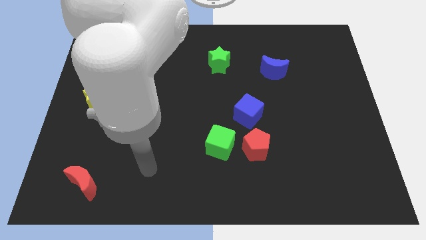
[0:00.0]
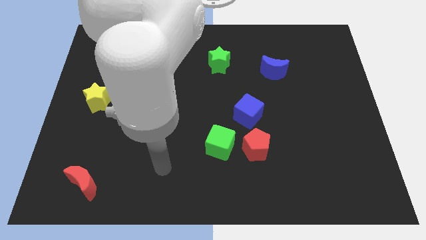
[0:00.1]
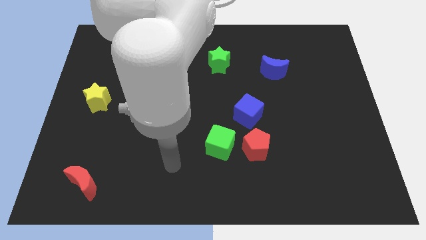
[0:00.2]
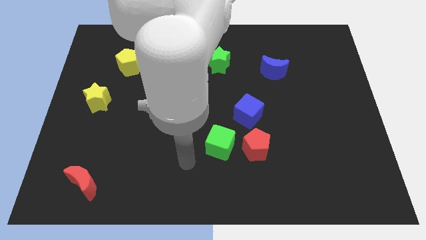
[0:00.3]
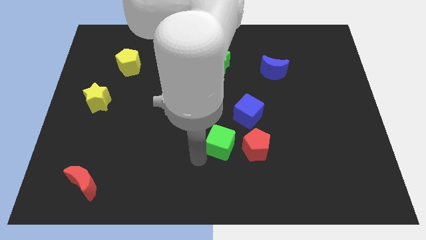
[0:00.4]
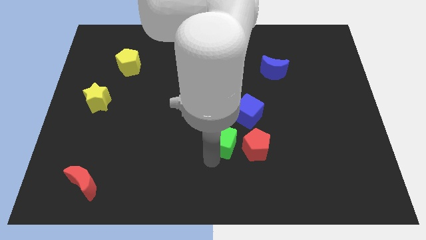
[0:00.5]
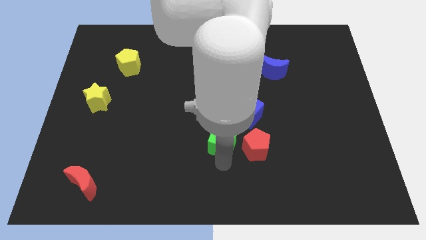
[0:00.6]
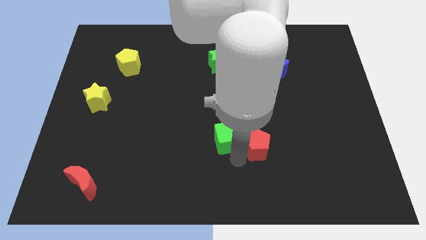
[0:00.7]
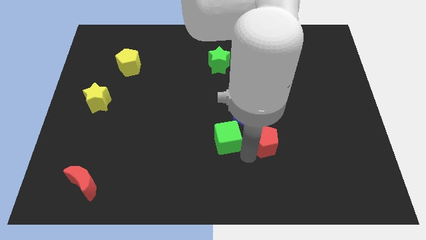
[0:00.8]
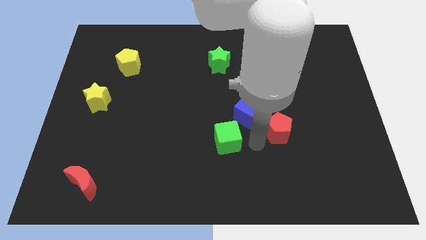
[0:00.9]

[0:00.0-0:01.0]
move the green cube away from the red pentagon

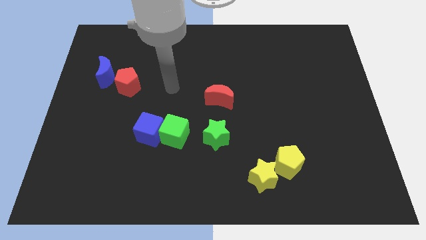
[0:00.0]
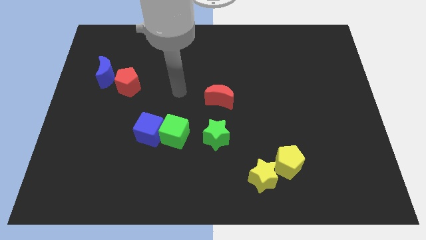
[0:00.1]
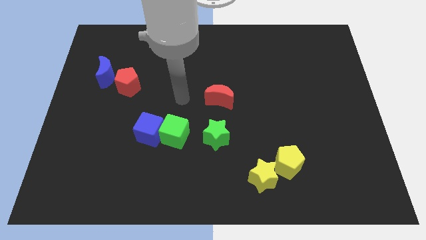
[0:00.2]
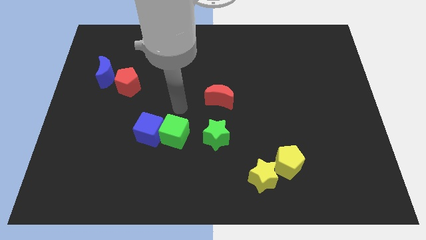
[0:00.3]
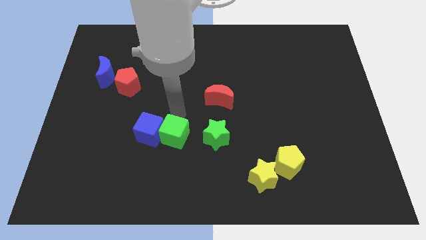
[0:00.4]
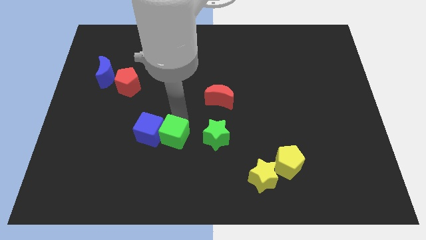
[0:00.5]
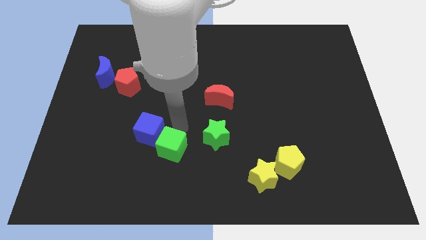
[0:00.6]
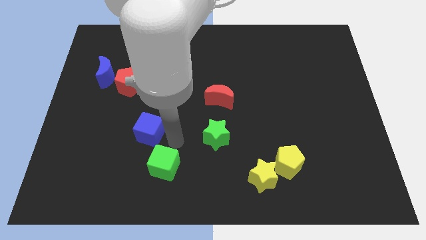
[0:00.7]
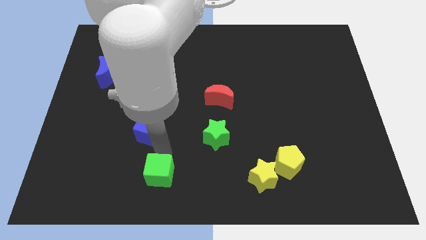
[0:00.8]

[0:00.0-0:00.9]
move the blue cube away from the green cube

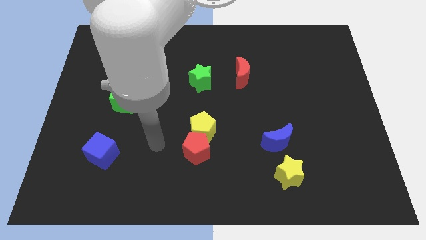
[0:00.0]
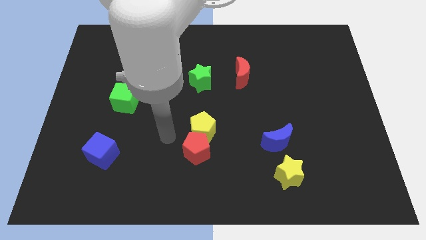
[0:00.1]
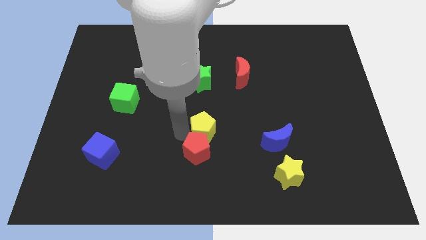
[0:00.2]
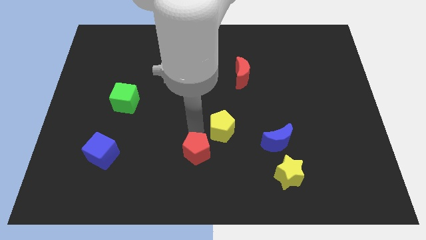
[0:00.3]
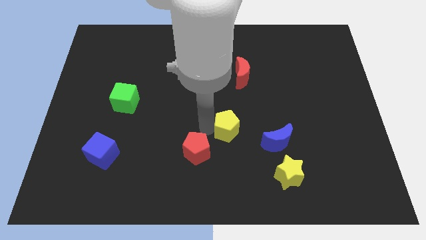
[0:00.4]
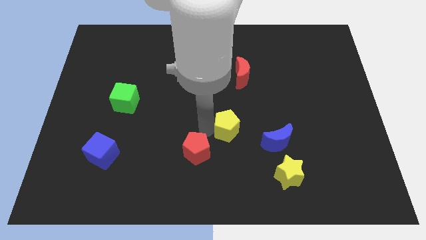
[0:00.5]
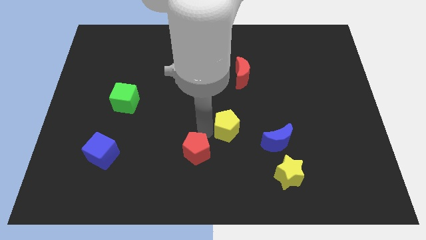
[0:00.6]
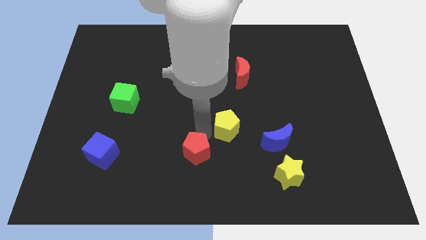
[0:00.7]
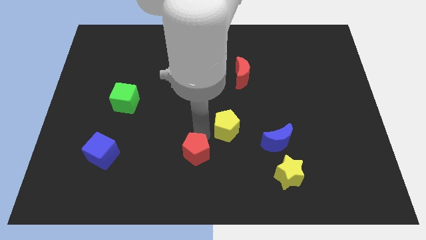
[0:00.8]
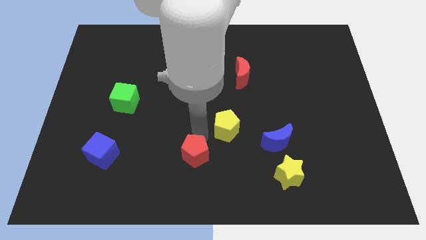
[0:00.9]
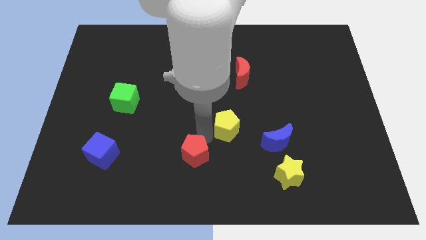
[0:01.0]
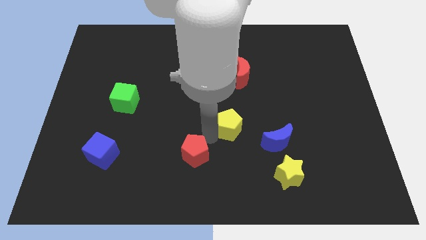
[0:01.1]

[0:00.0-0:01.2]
pull the red pentagon apart from the yellow pentagon

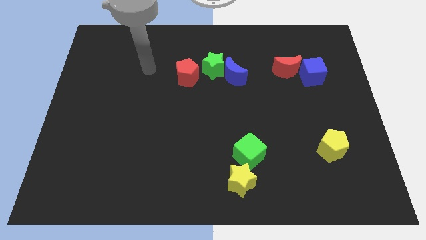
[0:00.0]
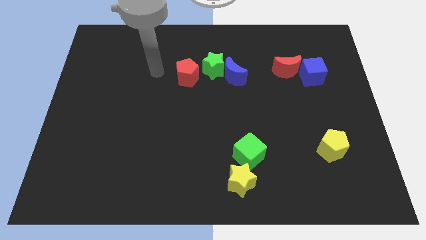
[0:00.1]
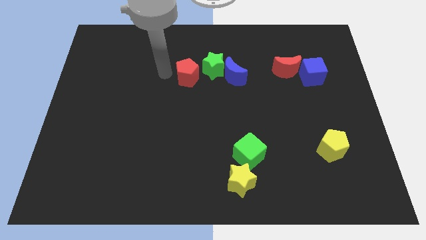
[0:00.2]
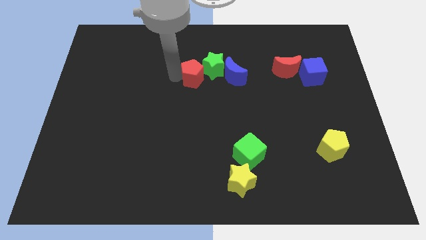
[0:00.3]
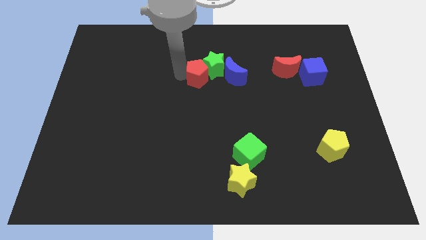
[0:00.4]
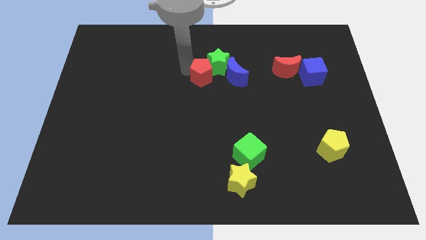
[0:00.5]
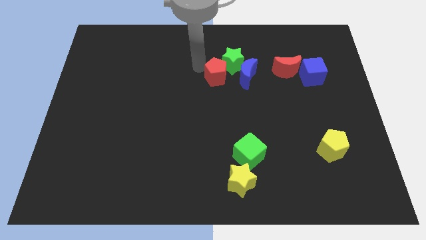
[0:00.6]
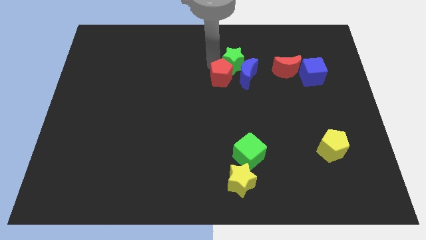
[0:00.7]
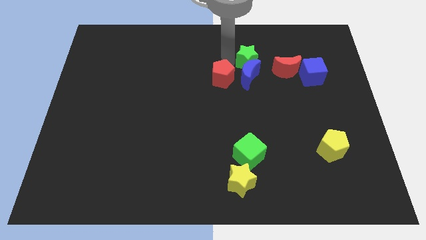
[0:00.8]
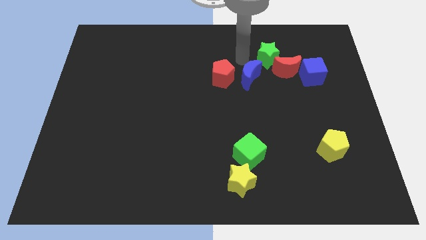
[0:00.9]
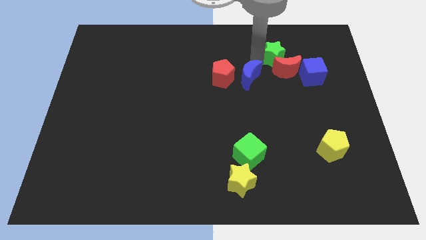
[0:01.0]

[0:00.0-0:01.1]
move the blue moon away from the green star

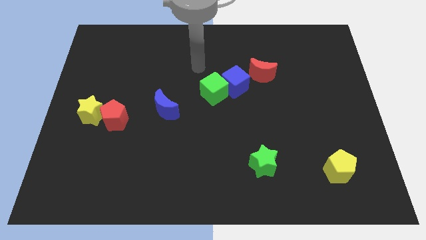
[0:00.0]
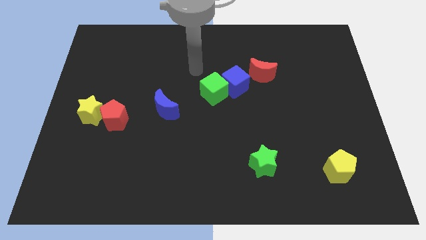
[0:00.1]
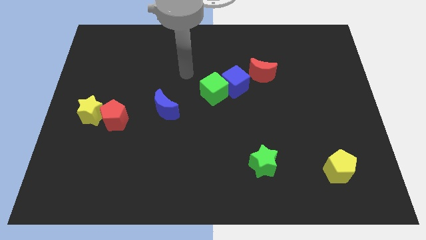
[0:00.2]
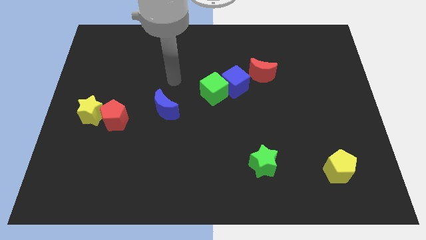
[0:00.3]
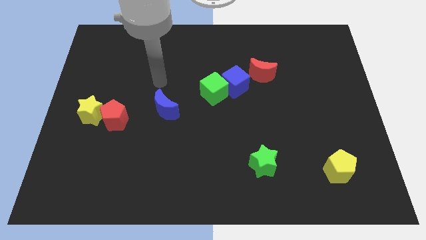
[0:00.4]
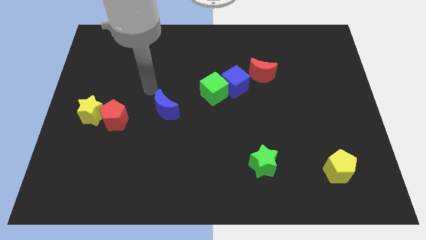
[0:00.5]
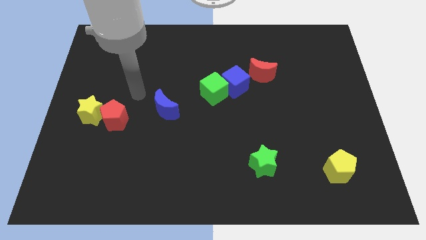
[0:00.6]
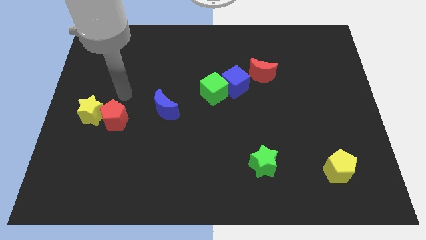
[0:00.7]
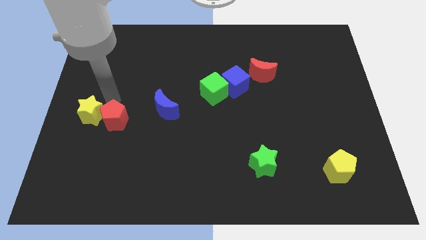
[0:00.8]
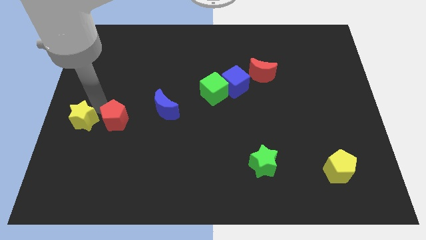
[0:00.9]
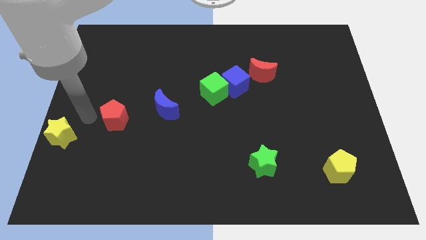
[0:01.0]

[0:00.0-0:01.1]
separate the red pentagon from the yellow star

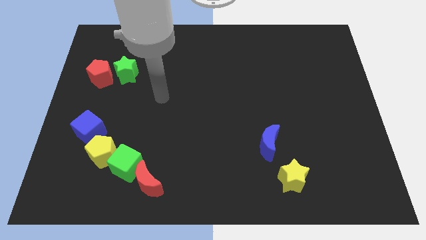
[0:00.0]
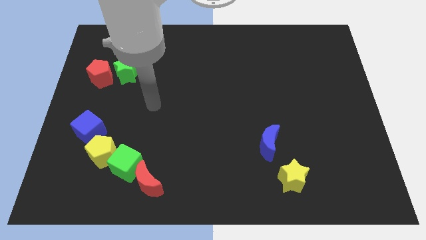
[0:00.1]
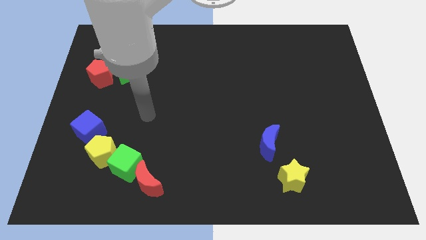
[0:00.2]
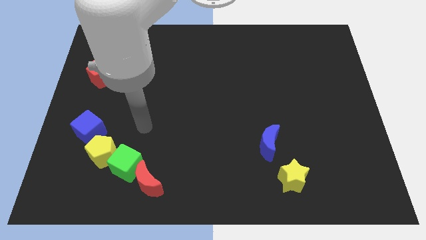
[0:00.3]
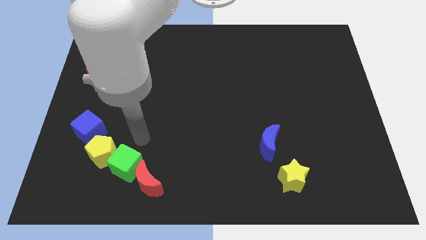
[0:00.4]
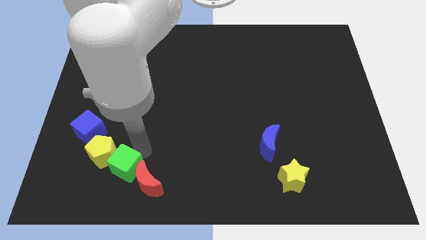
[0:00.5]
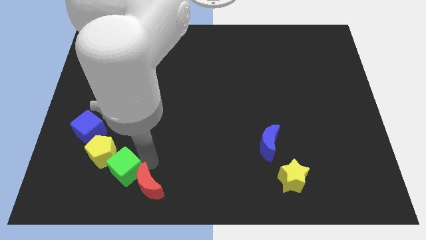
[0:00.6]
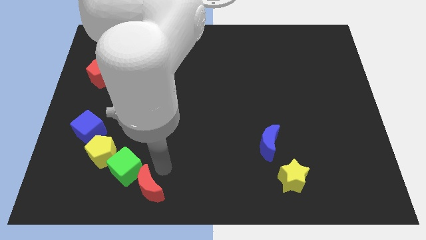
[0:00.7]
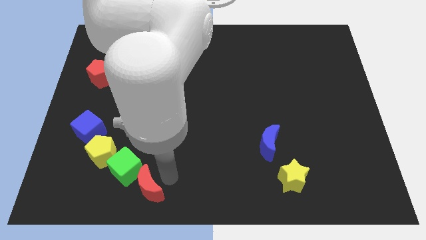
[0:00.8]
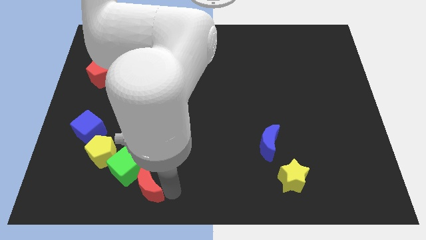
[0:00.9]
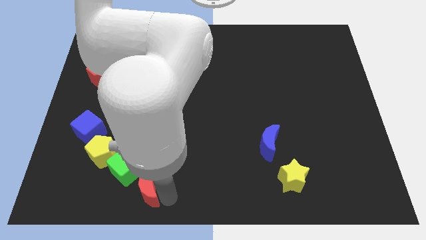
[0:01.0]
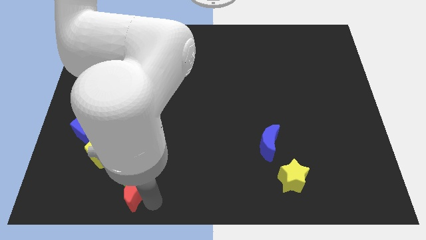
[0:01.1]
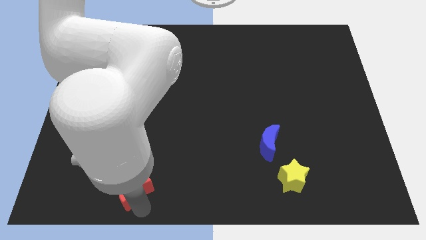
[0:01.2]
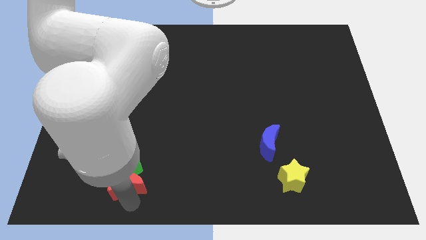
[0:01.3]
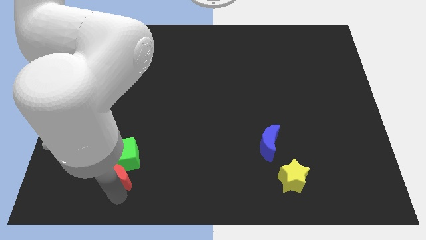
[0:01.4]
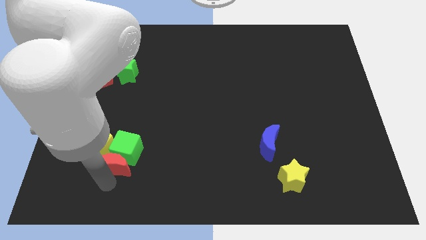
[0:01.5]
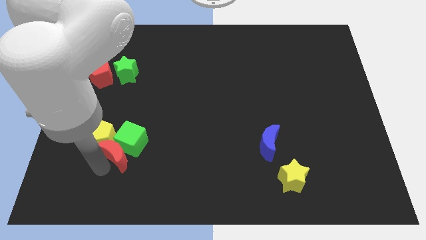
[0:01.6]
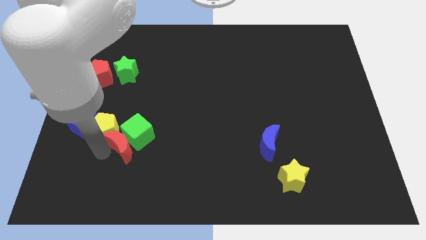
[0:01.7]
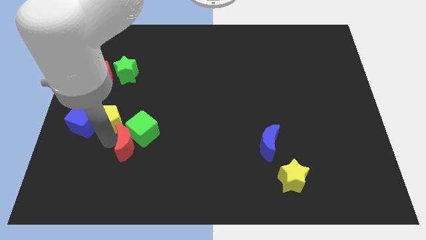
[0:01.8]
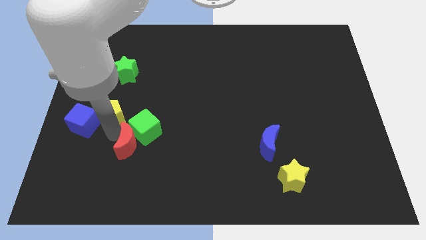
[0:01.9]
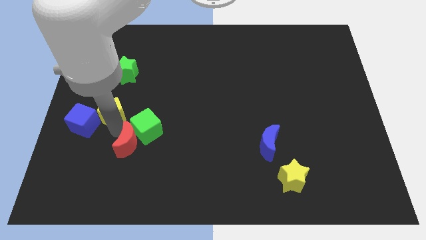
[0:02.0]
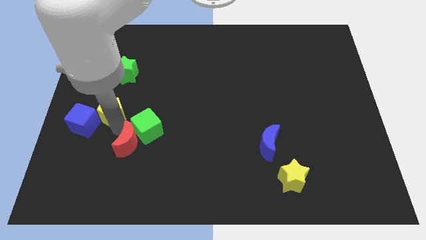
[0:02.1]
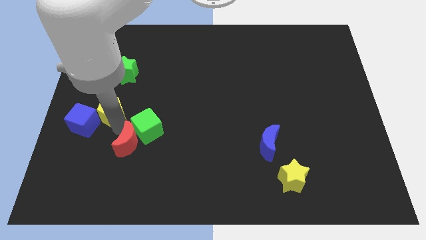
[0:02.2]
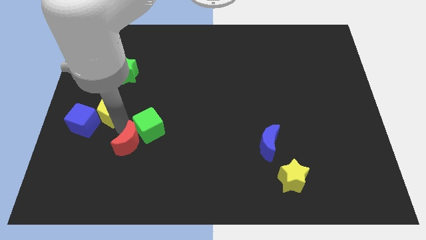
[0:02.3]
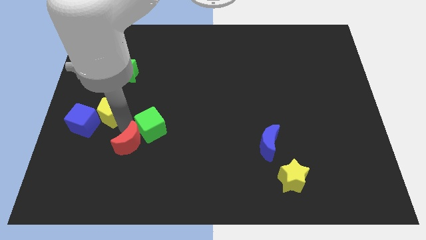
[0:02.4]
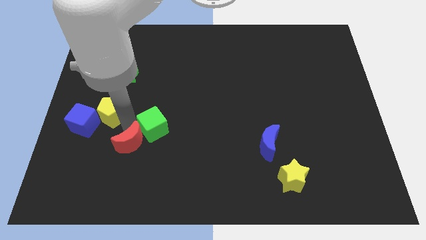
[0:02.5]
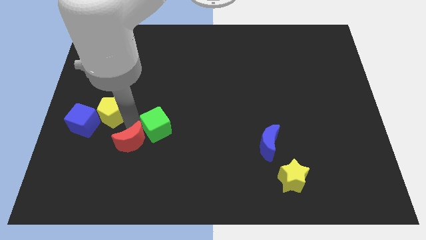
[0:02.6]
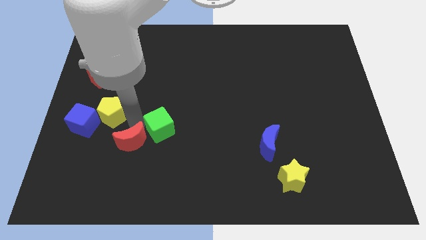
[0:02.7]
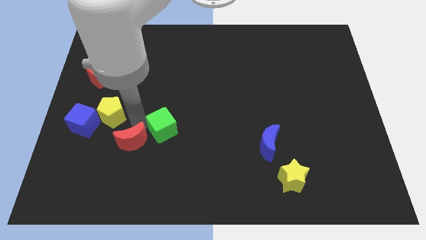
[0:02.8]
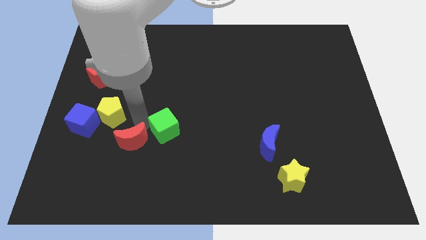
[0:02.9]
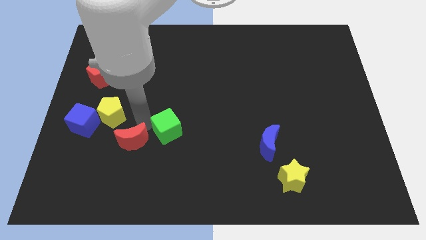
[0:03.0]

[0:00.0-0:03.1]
pull the green cube apart from the yellow pentagon and red moon

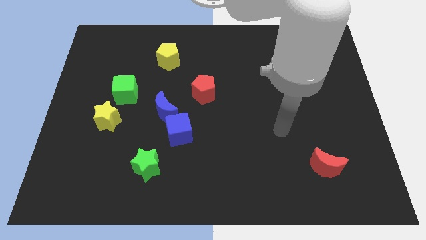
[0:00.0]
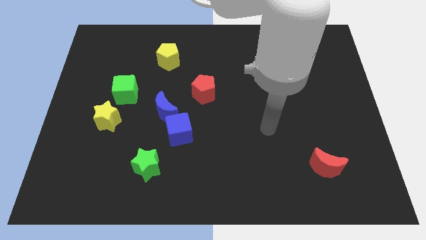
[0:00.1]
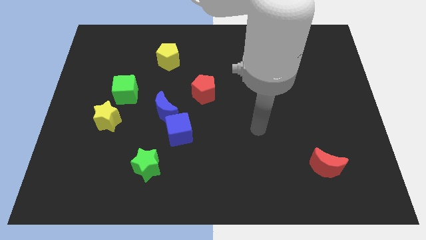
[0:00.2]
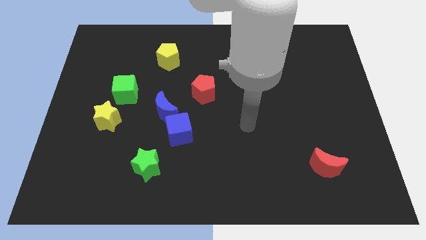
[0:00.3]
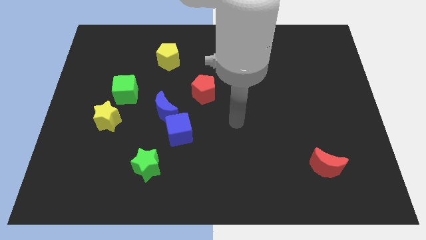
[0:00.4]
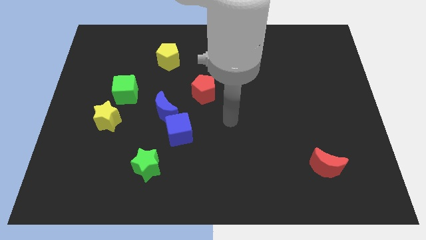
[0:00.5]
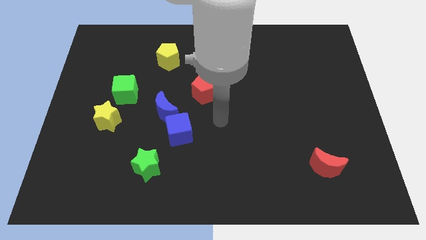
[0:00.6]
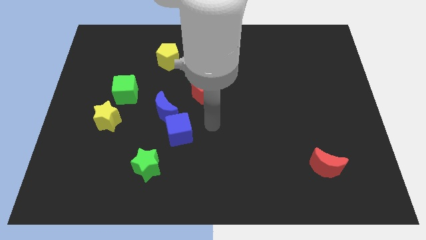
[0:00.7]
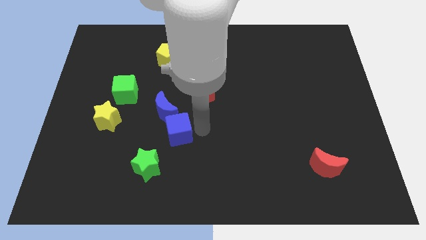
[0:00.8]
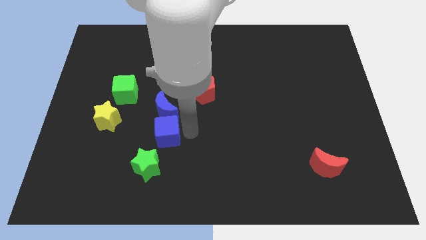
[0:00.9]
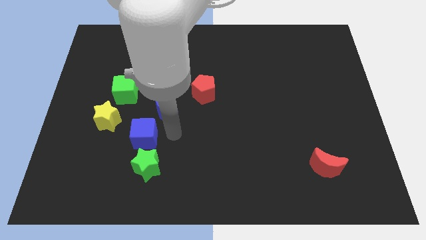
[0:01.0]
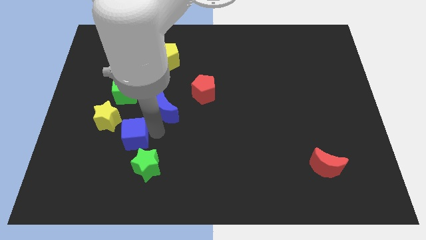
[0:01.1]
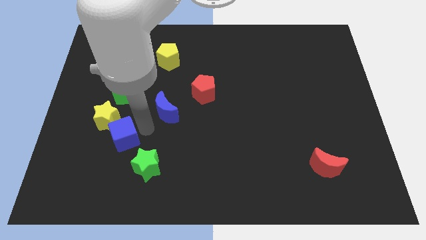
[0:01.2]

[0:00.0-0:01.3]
pull the blue moon apart from the blue cube
